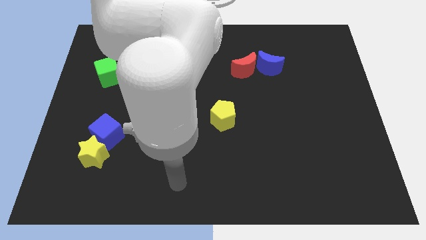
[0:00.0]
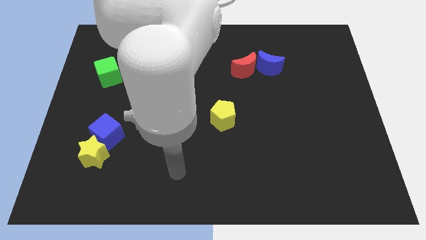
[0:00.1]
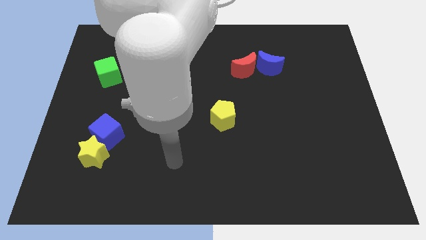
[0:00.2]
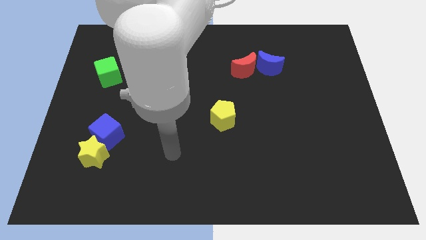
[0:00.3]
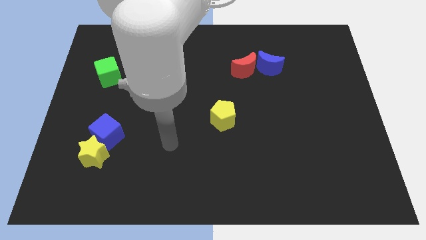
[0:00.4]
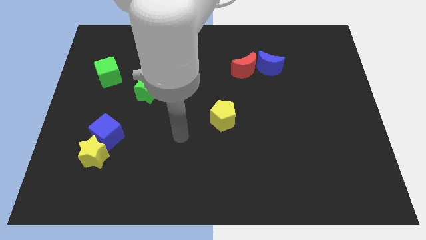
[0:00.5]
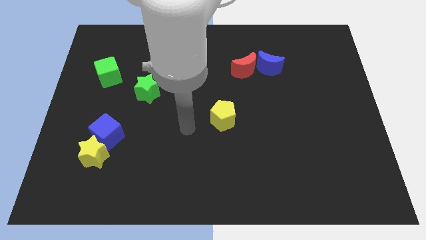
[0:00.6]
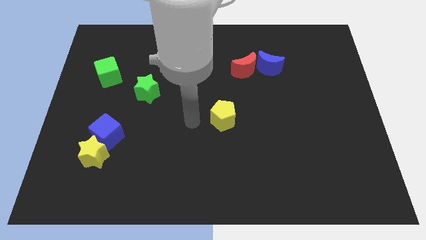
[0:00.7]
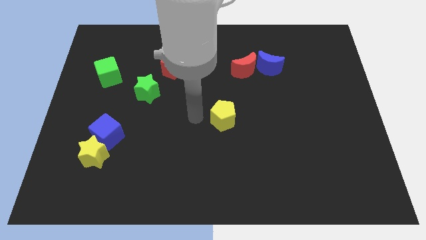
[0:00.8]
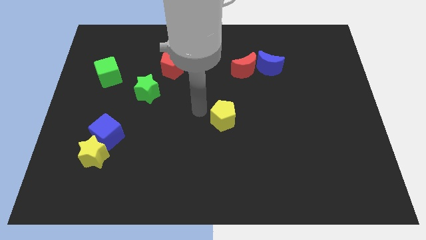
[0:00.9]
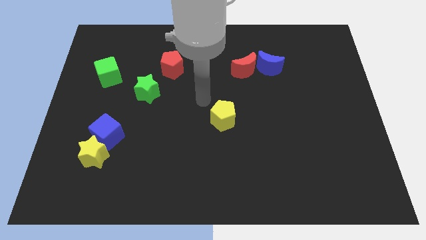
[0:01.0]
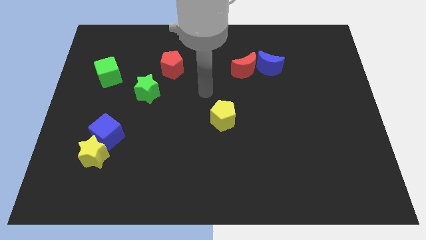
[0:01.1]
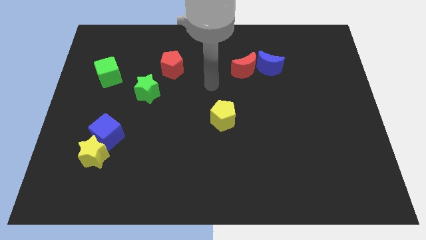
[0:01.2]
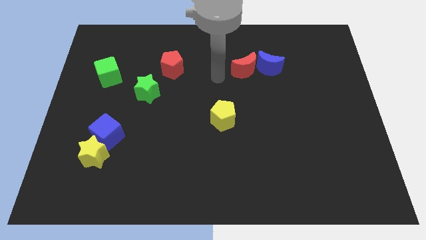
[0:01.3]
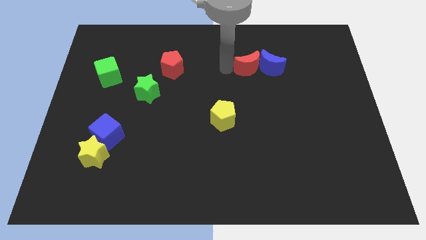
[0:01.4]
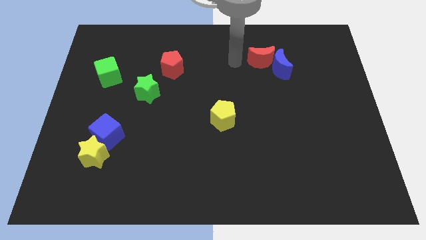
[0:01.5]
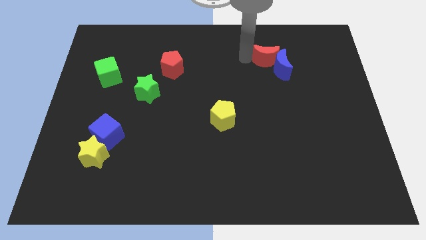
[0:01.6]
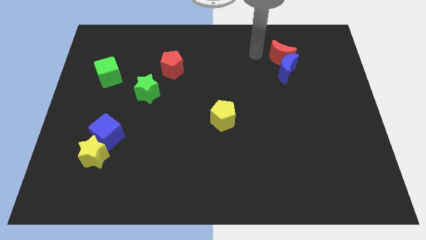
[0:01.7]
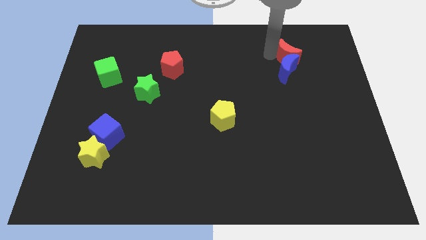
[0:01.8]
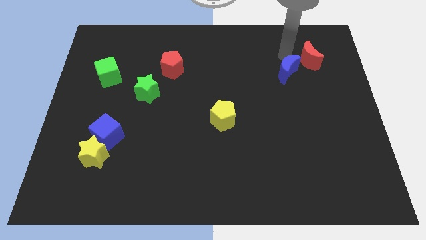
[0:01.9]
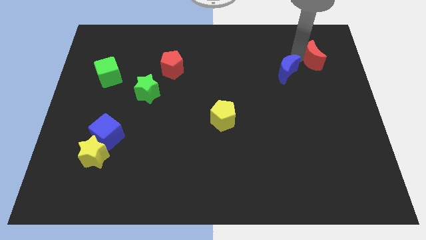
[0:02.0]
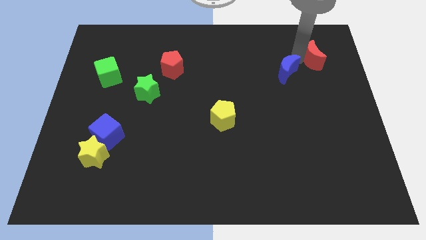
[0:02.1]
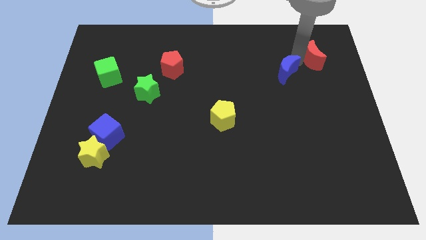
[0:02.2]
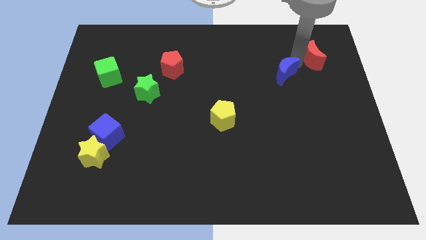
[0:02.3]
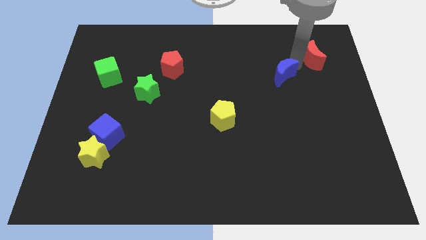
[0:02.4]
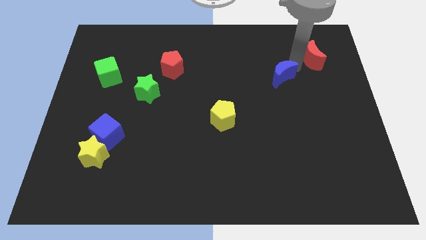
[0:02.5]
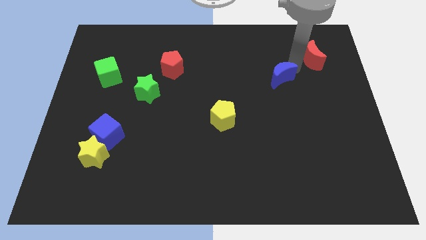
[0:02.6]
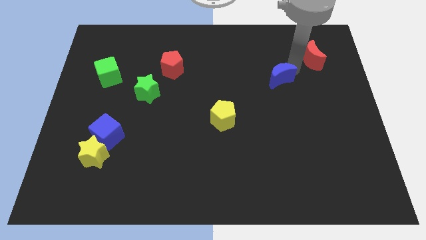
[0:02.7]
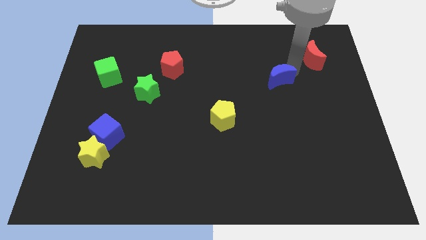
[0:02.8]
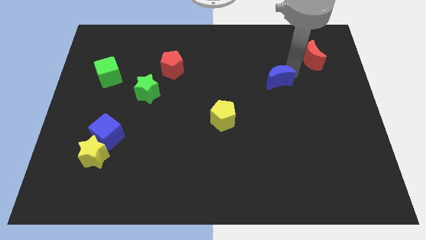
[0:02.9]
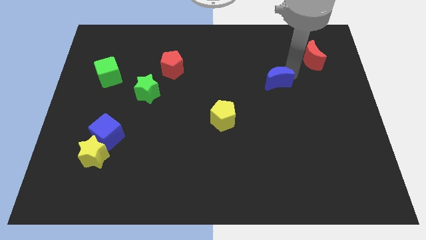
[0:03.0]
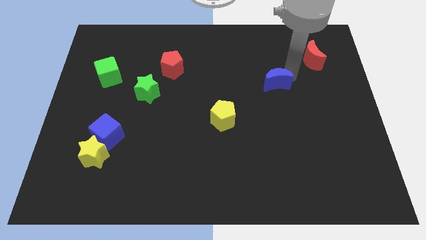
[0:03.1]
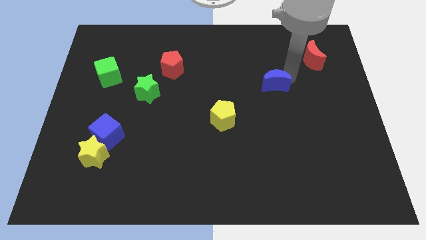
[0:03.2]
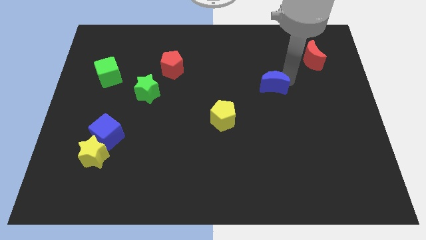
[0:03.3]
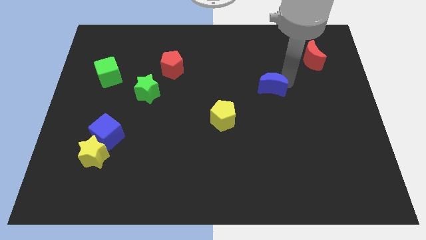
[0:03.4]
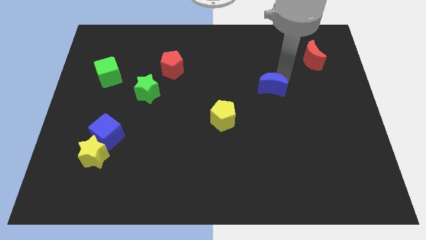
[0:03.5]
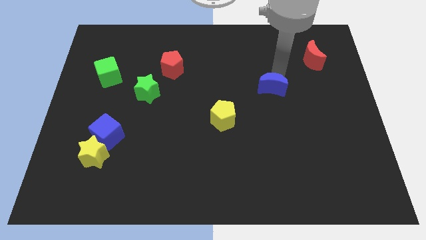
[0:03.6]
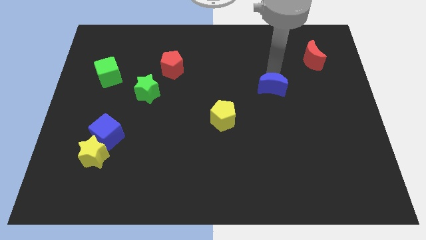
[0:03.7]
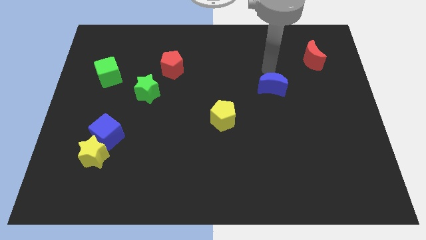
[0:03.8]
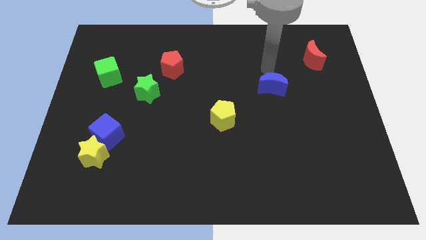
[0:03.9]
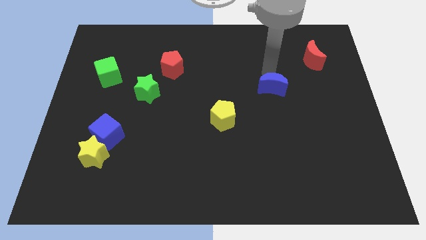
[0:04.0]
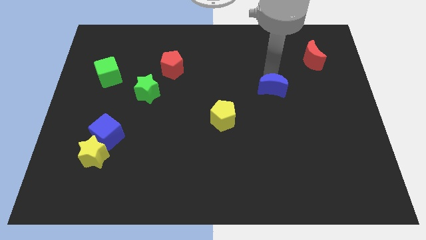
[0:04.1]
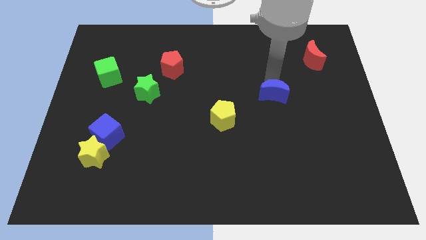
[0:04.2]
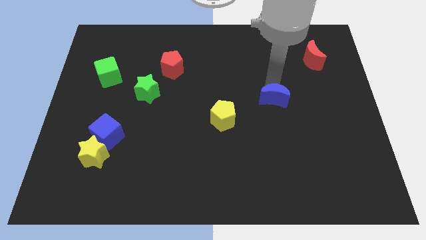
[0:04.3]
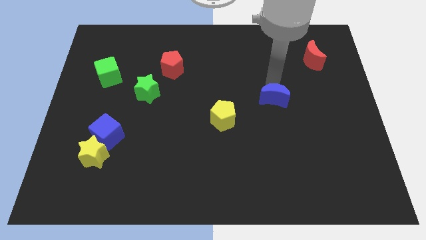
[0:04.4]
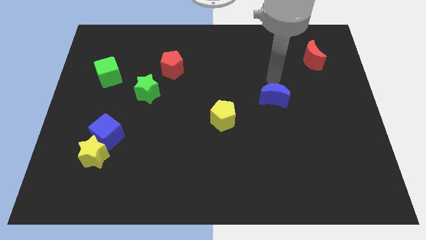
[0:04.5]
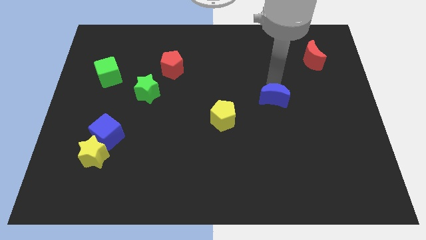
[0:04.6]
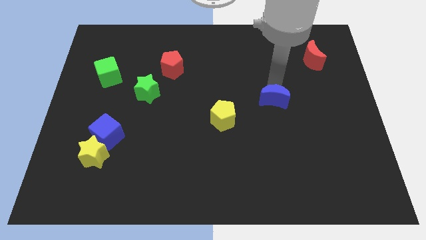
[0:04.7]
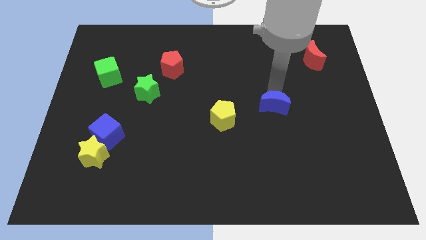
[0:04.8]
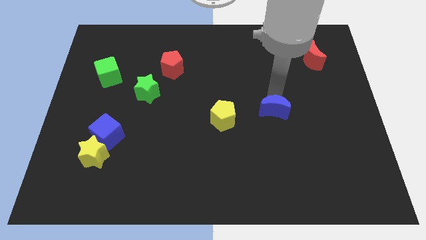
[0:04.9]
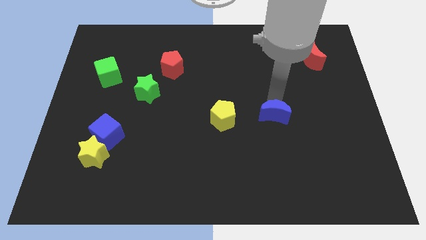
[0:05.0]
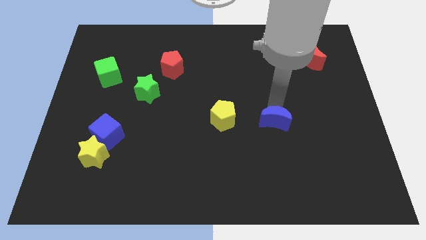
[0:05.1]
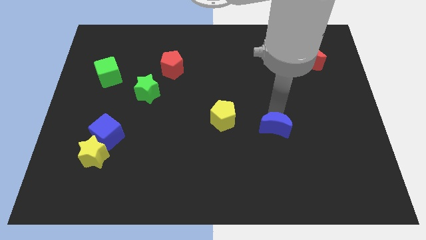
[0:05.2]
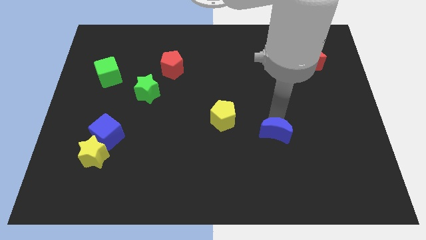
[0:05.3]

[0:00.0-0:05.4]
slide the blue moon downwards

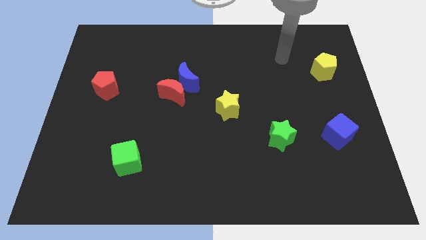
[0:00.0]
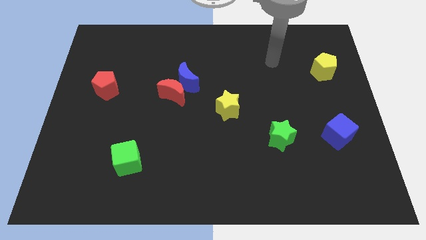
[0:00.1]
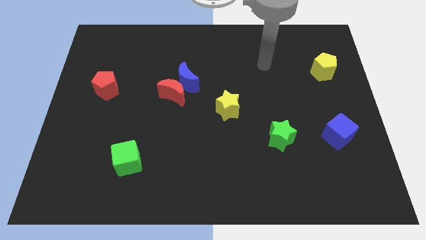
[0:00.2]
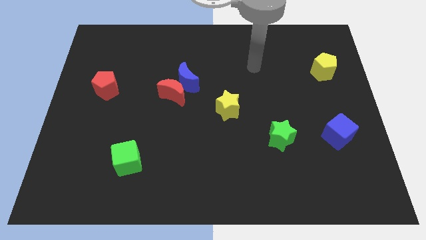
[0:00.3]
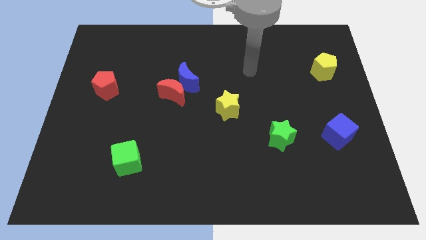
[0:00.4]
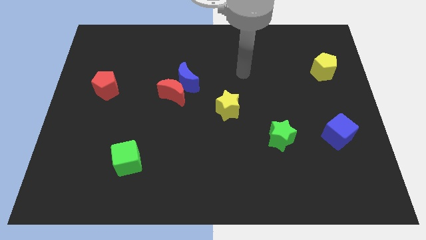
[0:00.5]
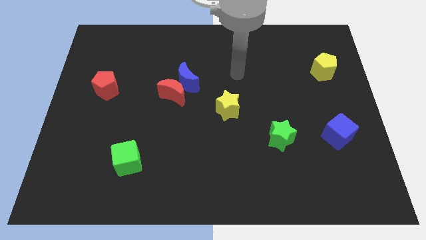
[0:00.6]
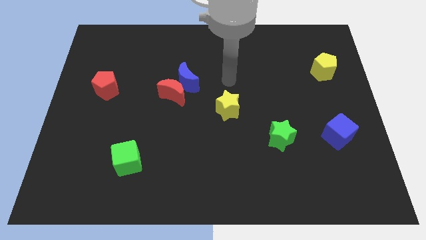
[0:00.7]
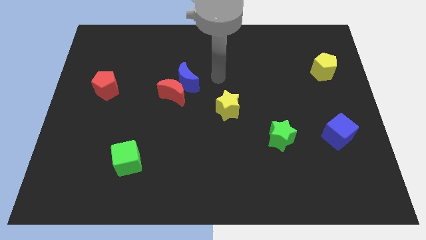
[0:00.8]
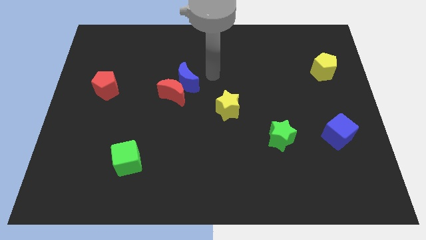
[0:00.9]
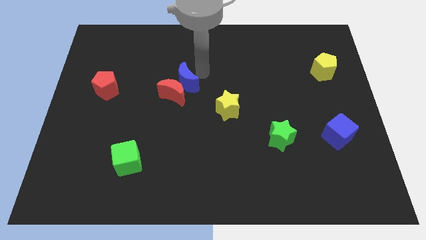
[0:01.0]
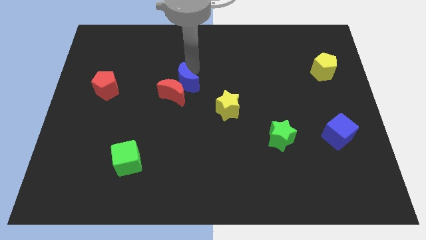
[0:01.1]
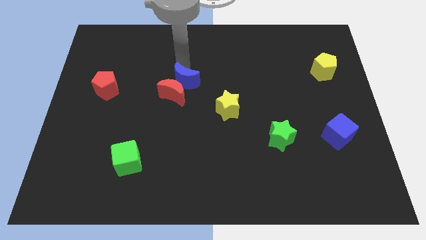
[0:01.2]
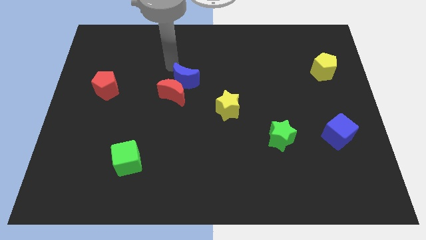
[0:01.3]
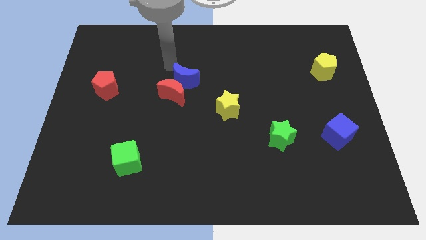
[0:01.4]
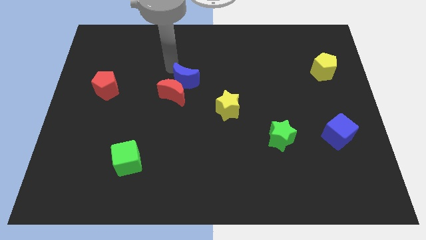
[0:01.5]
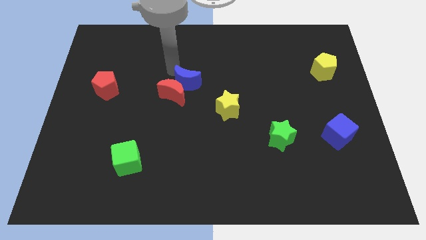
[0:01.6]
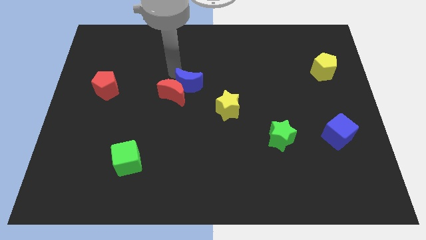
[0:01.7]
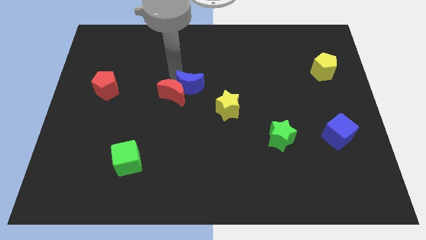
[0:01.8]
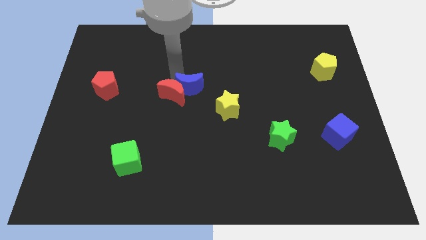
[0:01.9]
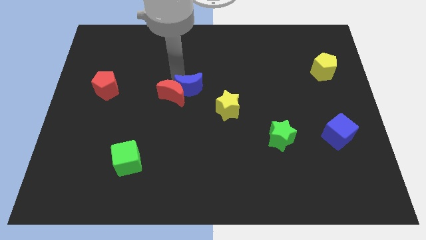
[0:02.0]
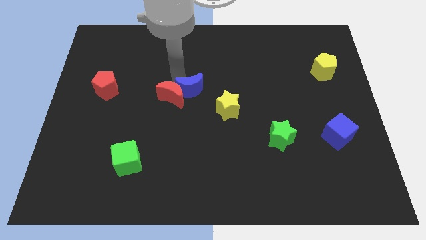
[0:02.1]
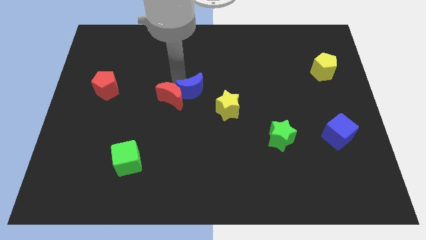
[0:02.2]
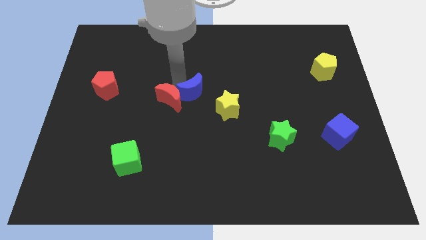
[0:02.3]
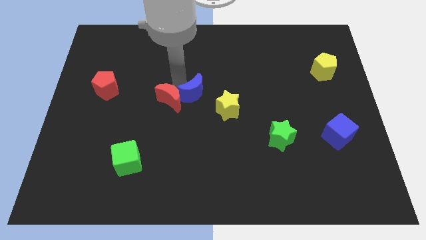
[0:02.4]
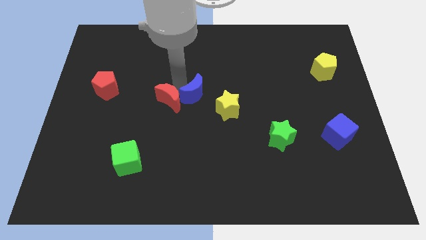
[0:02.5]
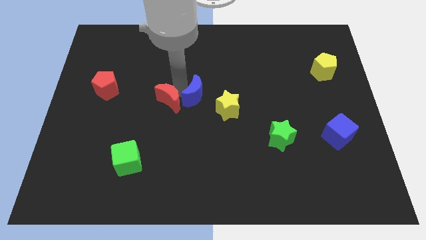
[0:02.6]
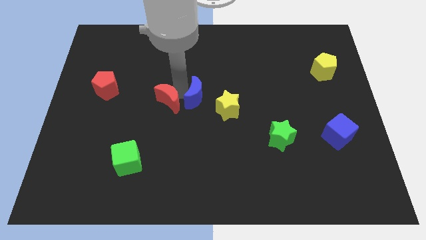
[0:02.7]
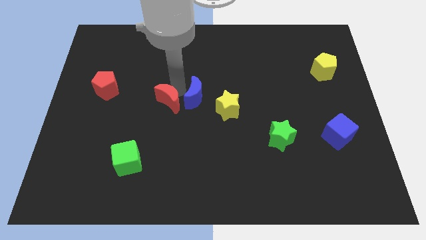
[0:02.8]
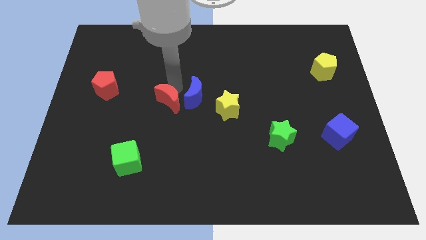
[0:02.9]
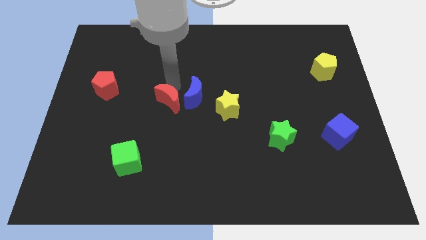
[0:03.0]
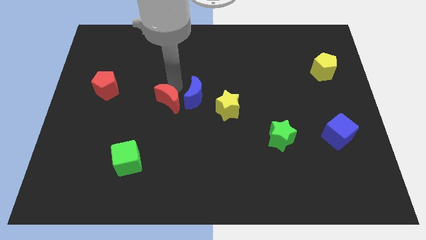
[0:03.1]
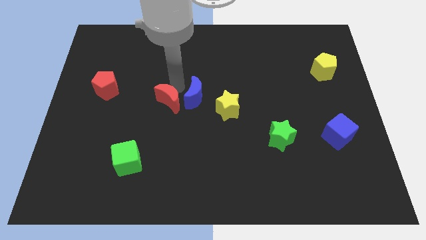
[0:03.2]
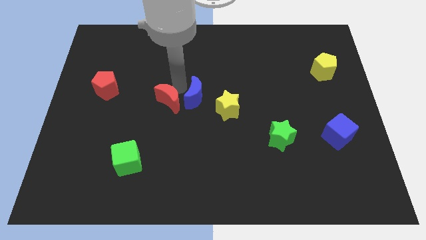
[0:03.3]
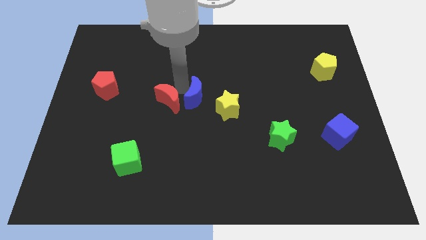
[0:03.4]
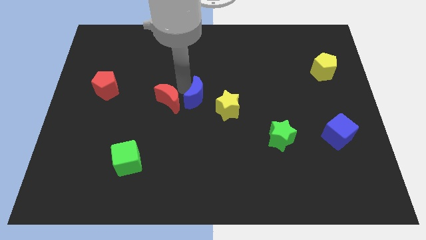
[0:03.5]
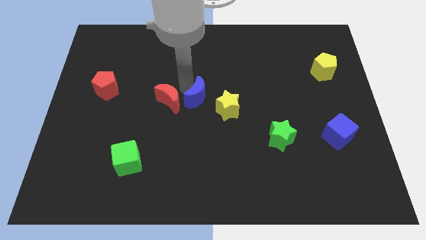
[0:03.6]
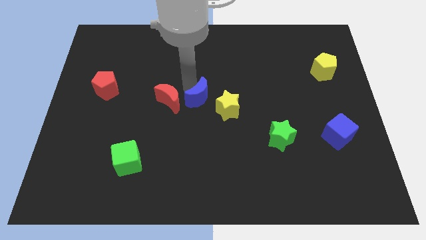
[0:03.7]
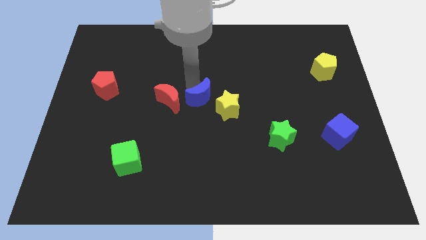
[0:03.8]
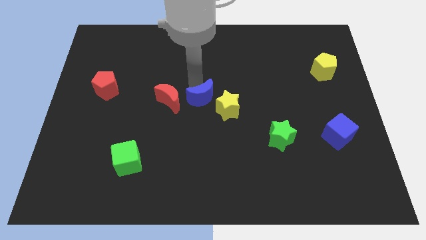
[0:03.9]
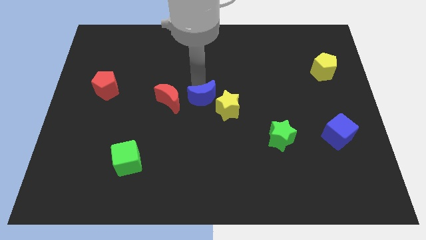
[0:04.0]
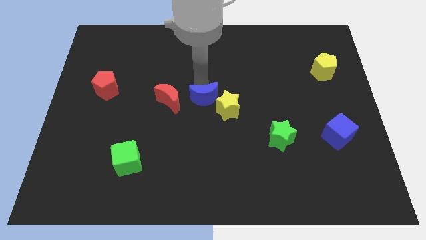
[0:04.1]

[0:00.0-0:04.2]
slightly push the blue moon diagonally down and right
